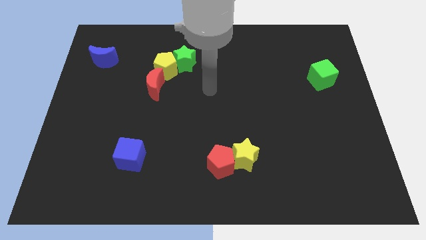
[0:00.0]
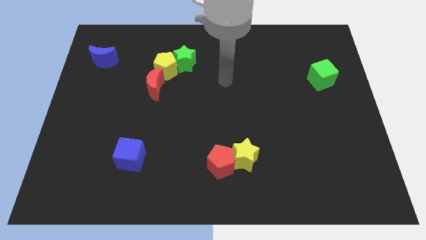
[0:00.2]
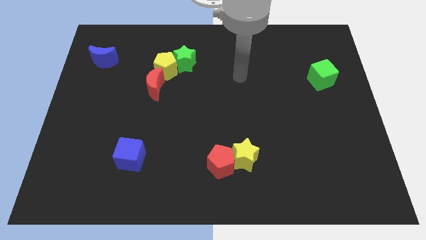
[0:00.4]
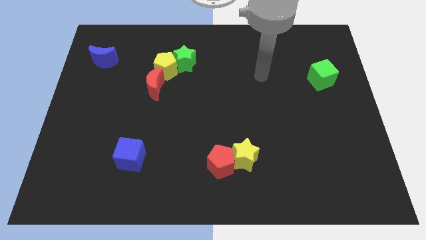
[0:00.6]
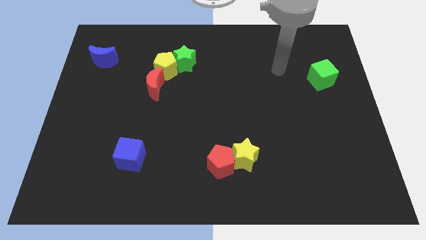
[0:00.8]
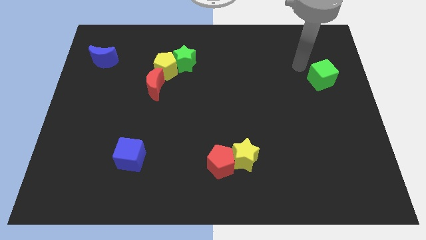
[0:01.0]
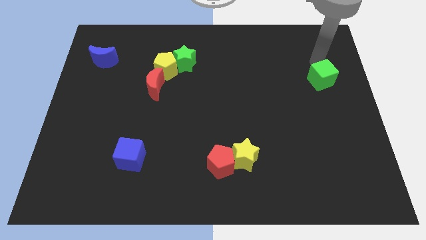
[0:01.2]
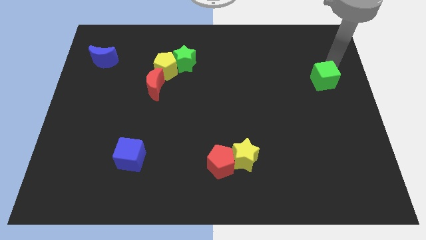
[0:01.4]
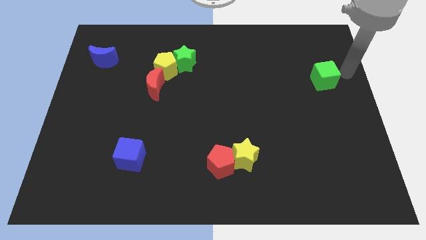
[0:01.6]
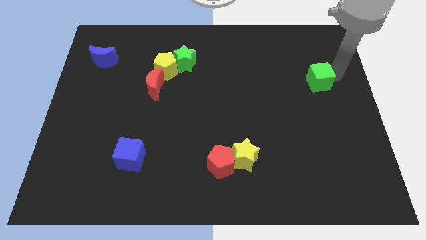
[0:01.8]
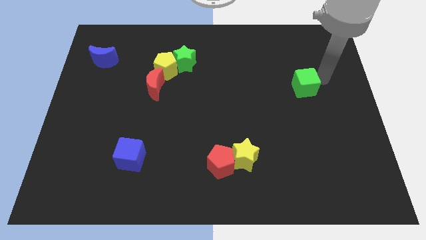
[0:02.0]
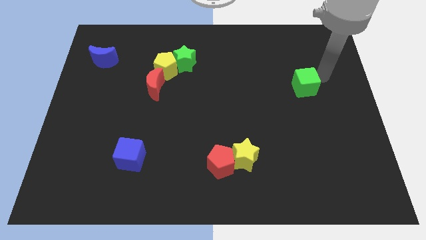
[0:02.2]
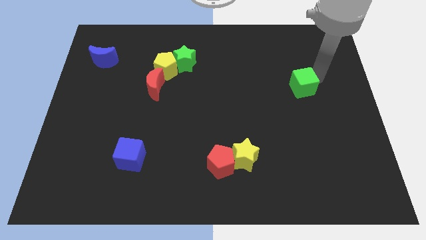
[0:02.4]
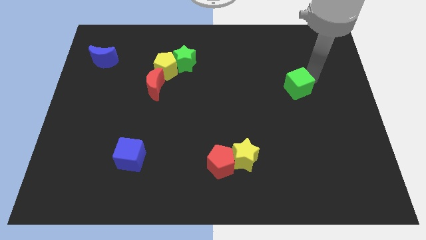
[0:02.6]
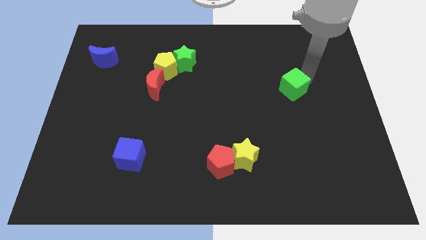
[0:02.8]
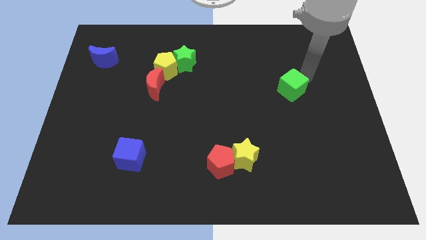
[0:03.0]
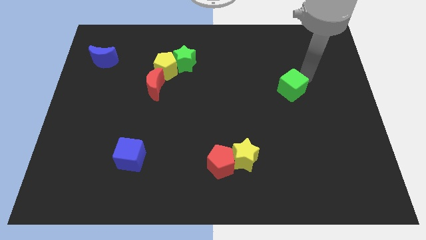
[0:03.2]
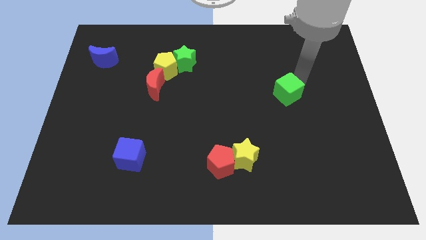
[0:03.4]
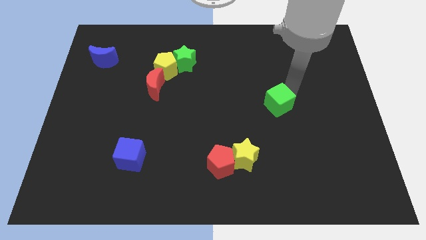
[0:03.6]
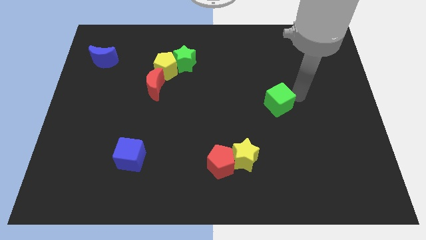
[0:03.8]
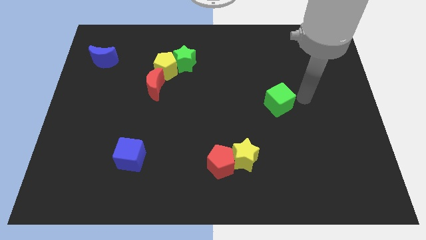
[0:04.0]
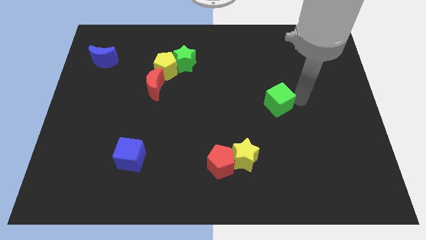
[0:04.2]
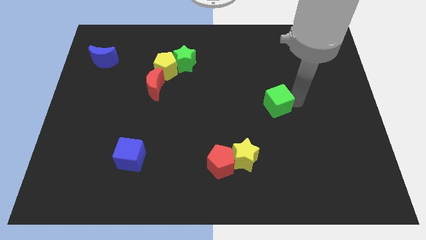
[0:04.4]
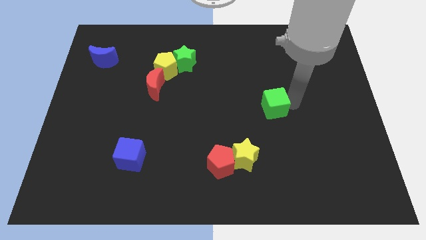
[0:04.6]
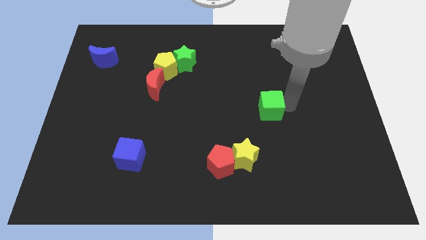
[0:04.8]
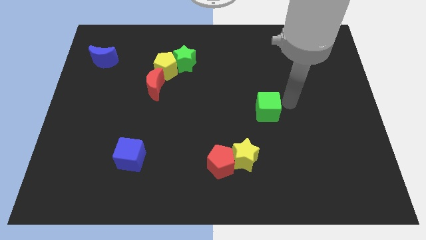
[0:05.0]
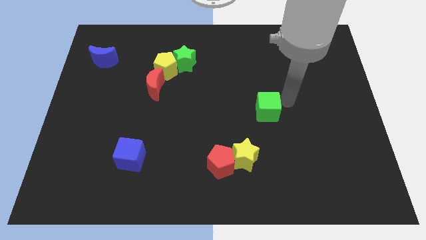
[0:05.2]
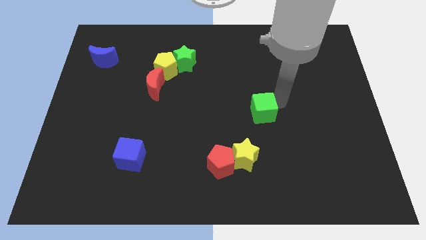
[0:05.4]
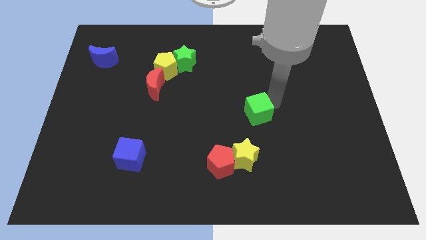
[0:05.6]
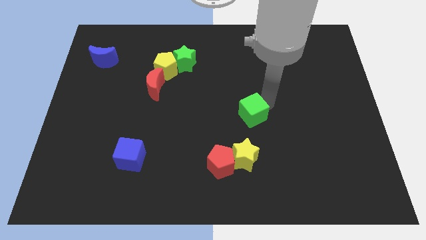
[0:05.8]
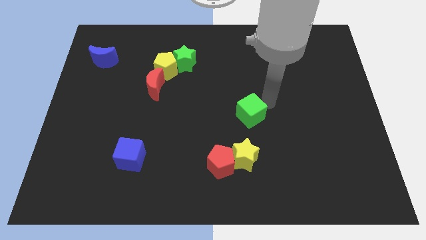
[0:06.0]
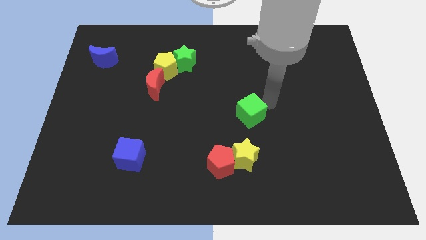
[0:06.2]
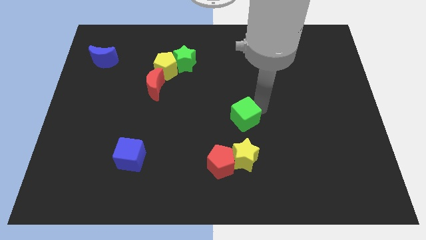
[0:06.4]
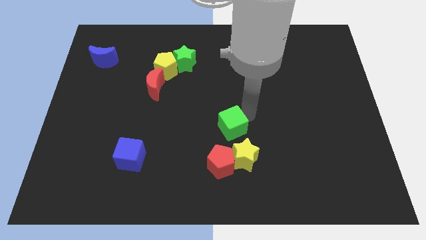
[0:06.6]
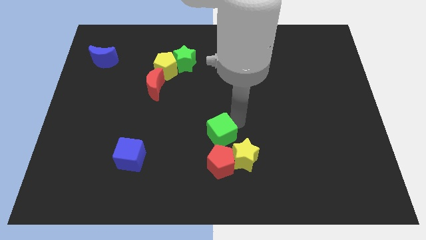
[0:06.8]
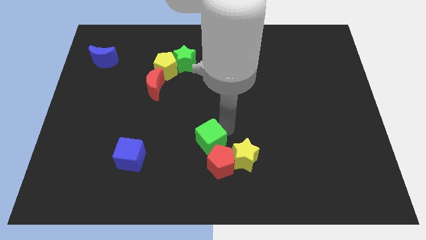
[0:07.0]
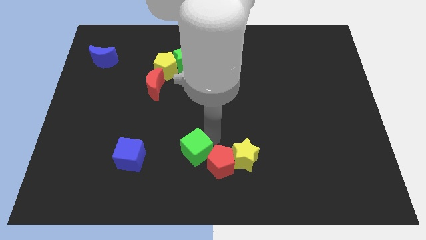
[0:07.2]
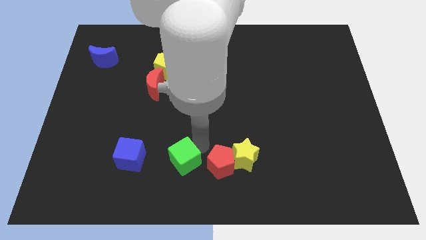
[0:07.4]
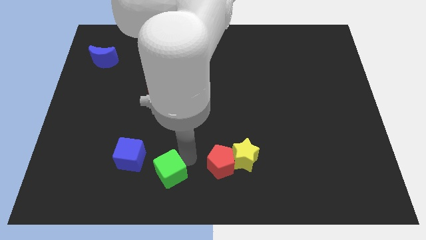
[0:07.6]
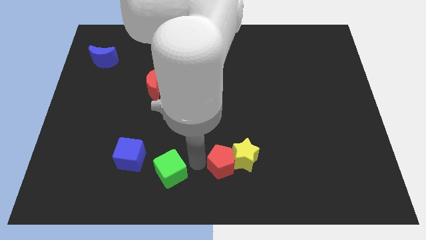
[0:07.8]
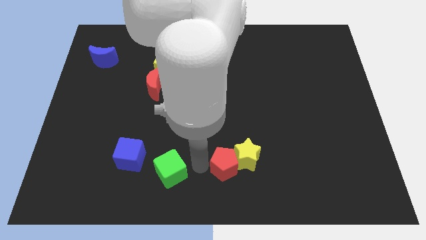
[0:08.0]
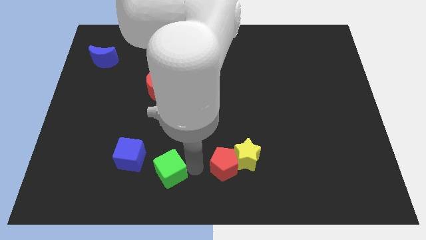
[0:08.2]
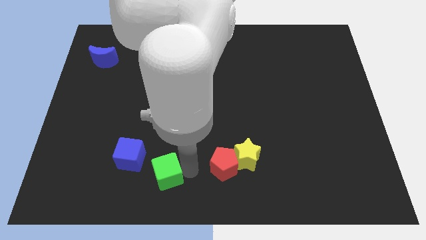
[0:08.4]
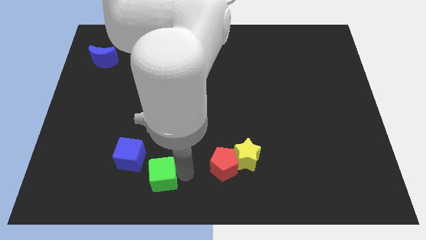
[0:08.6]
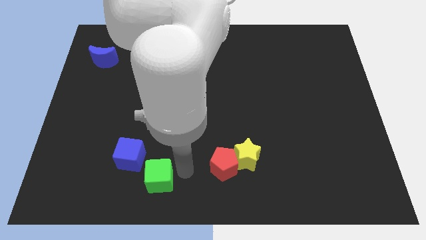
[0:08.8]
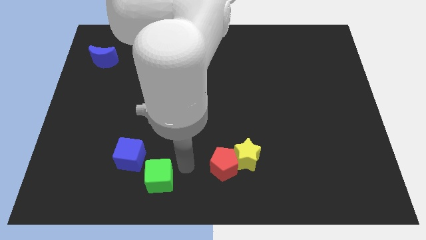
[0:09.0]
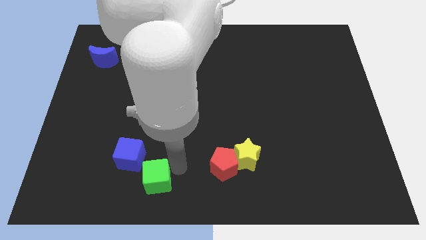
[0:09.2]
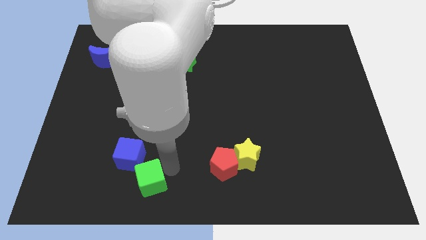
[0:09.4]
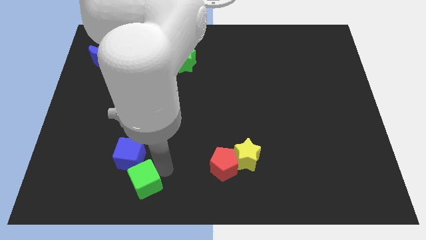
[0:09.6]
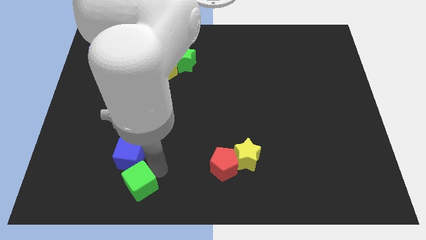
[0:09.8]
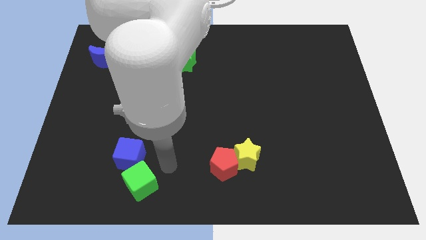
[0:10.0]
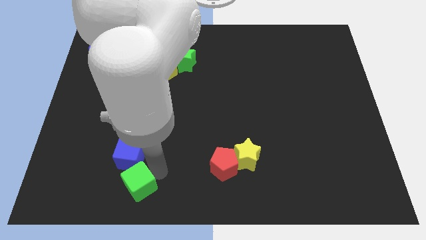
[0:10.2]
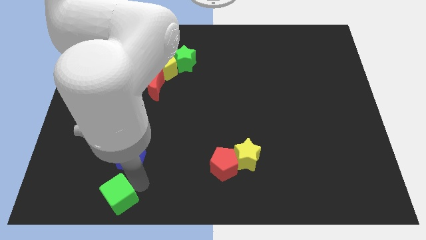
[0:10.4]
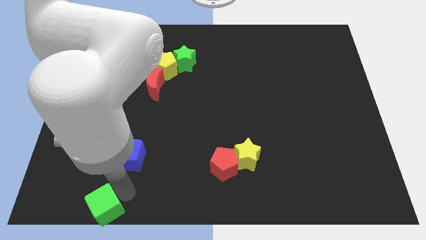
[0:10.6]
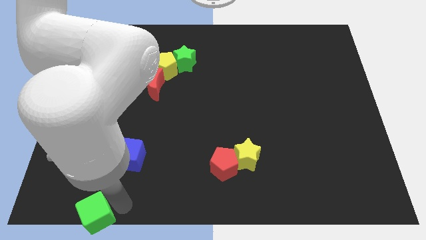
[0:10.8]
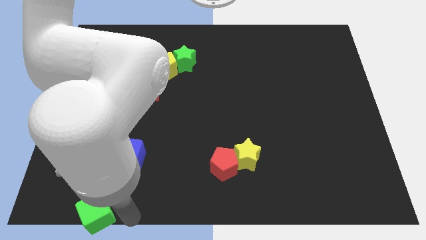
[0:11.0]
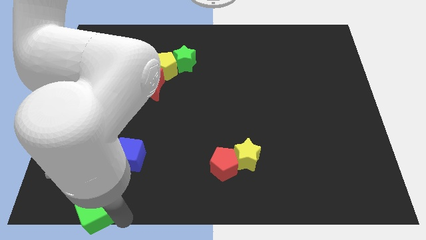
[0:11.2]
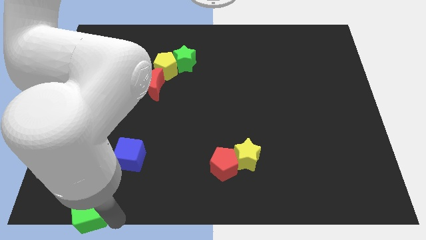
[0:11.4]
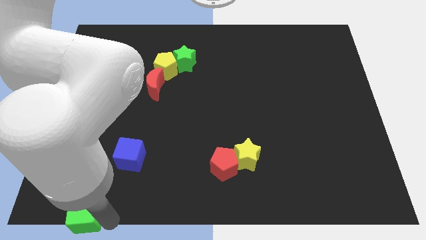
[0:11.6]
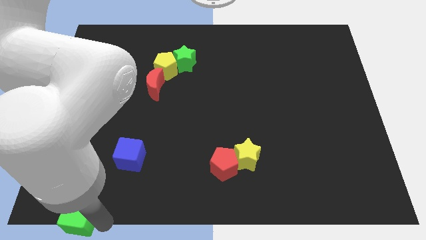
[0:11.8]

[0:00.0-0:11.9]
move the green cube to the bottom left of the board
